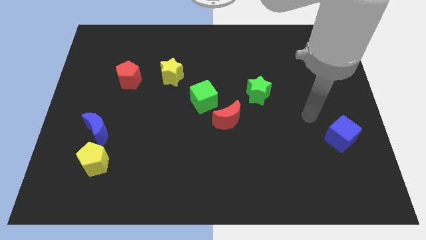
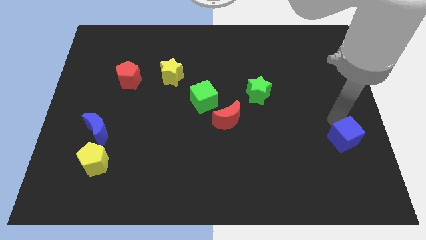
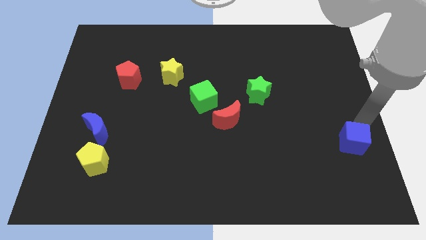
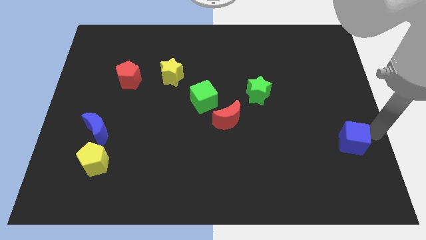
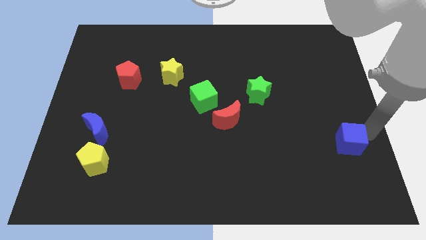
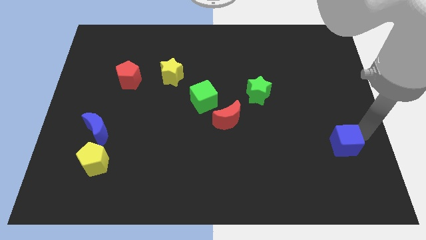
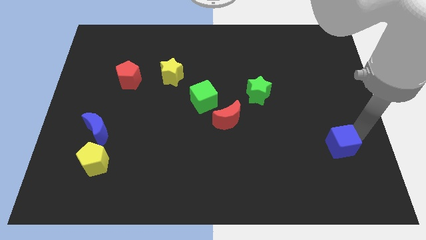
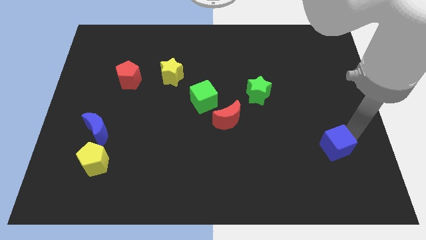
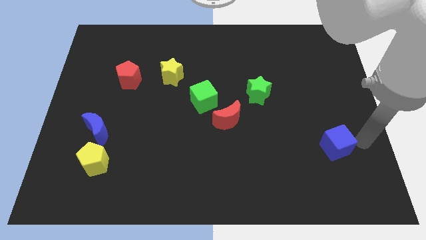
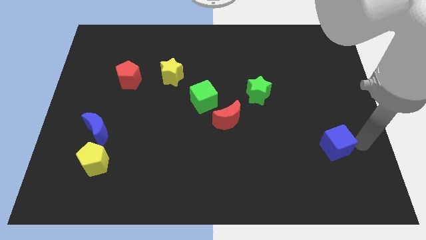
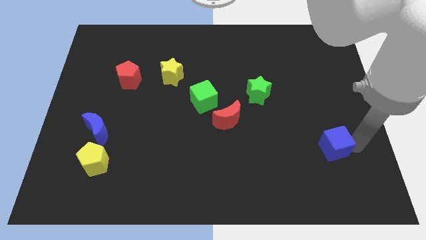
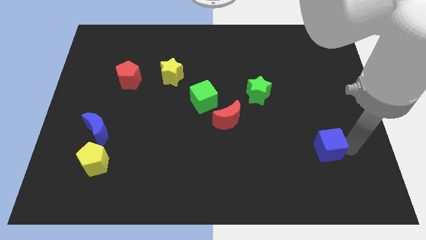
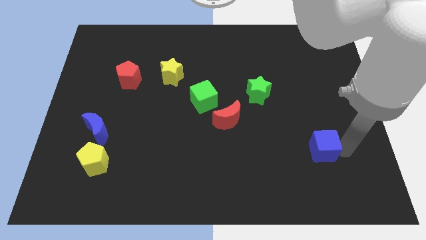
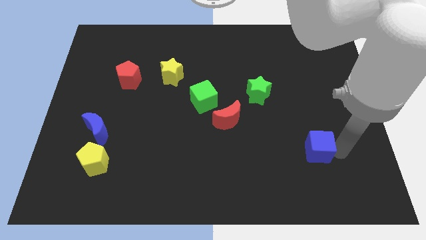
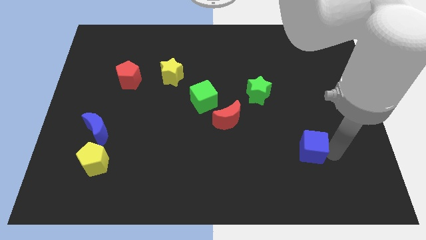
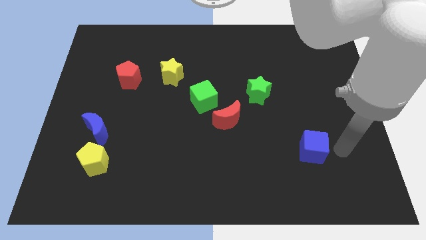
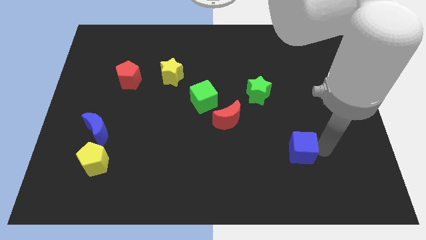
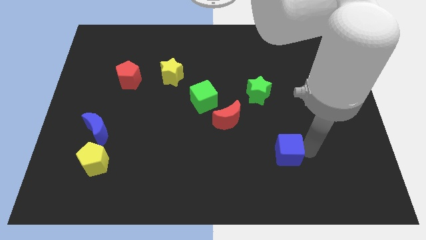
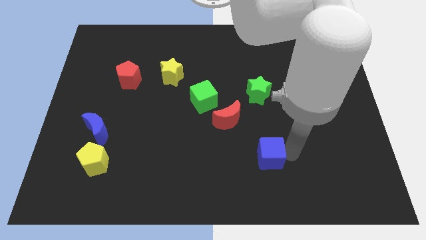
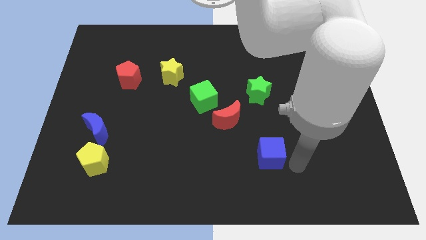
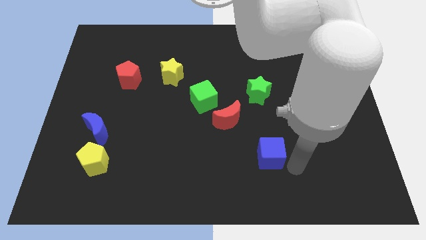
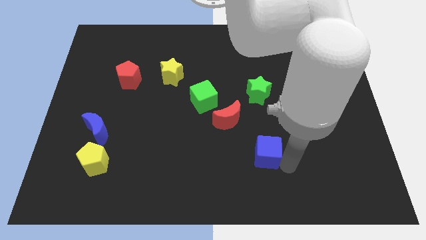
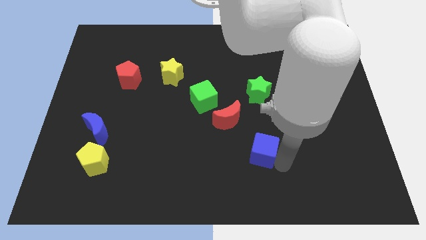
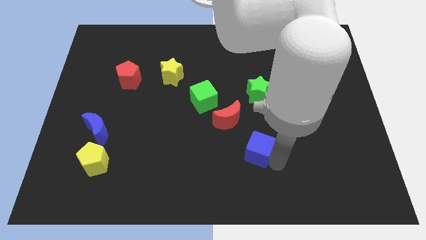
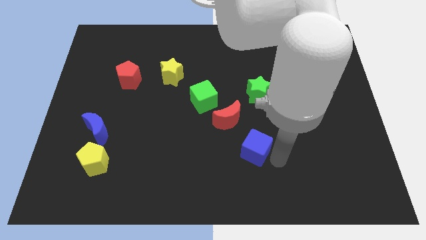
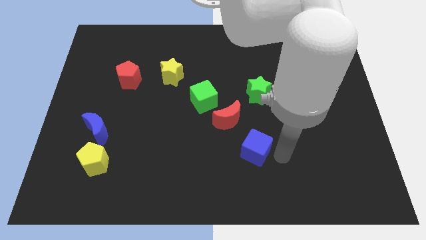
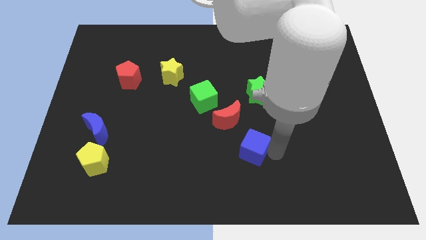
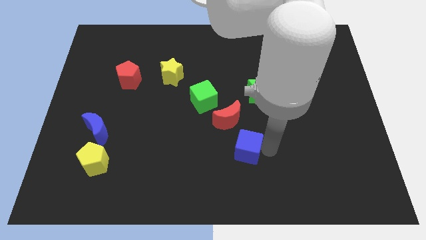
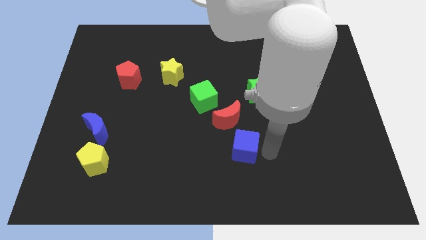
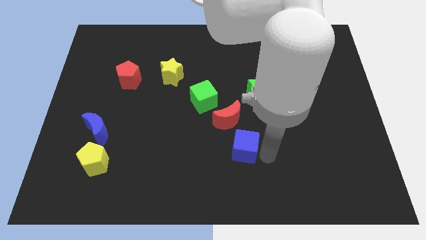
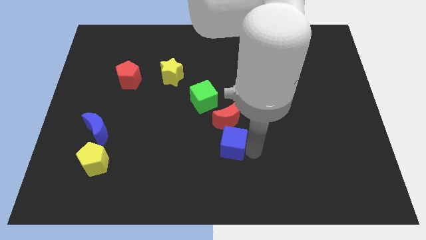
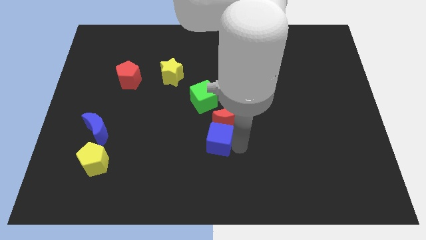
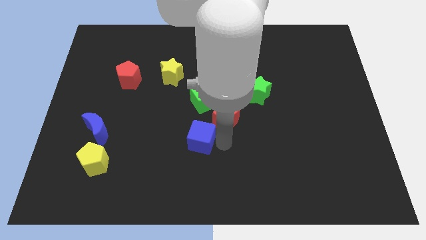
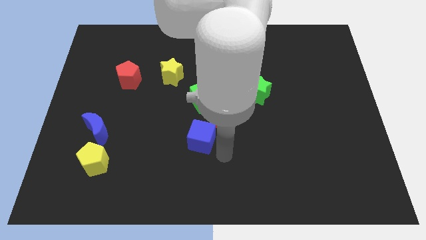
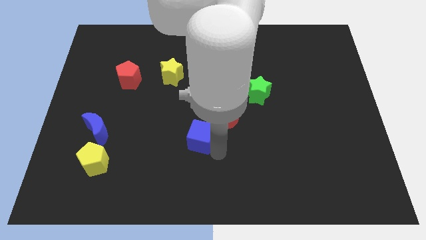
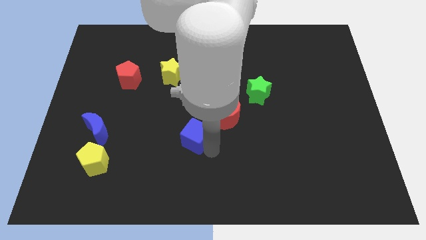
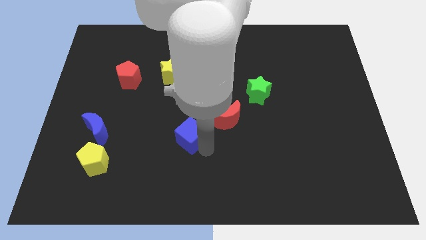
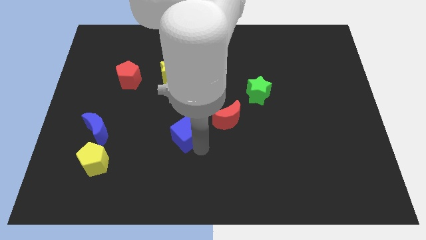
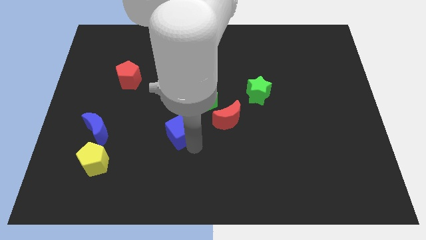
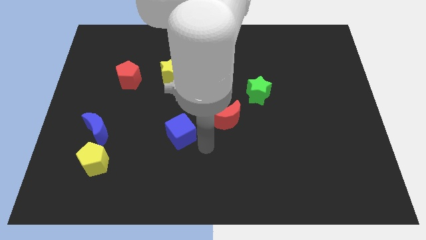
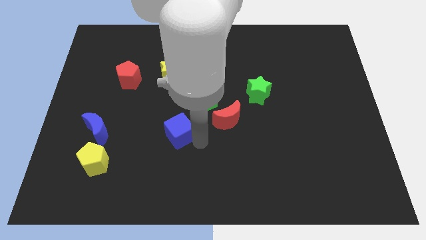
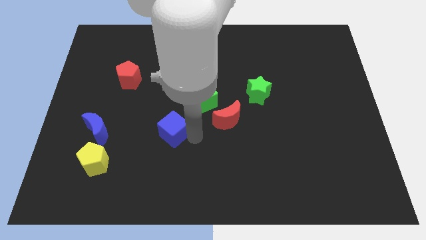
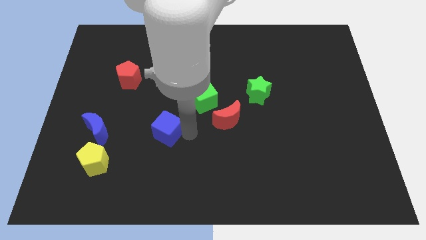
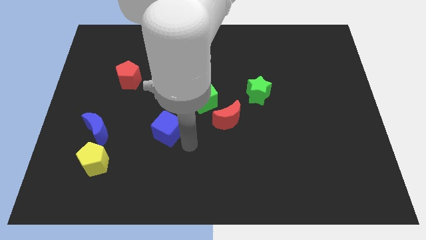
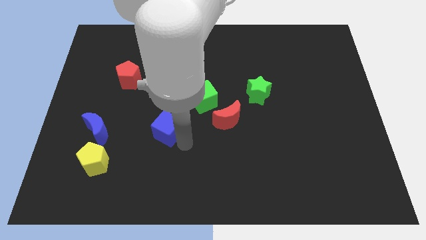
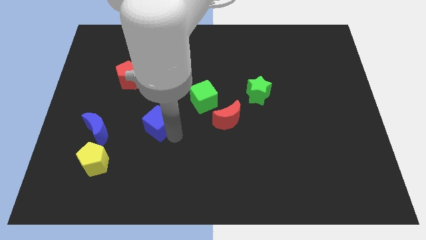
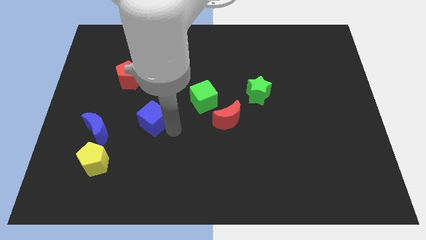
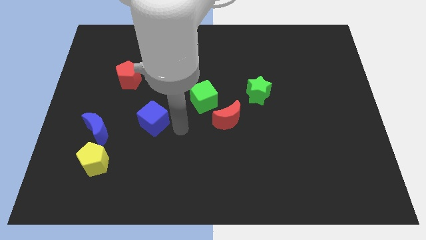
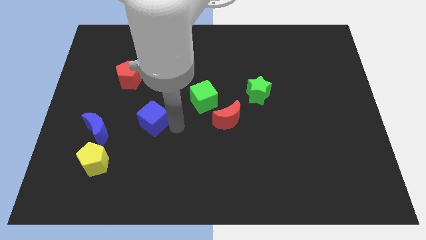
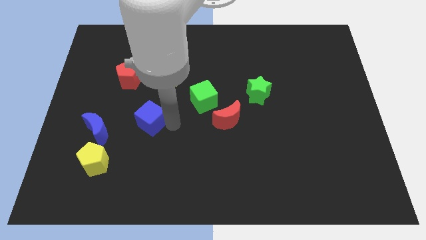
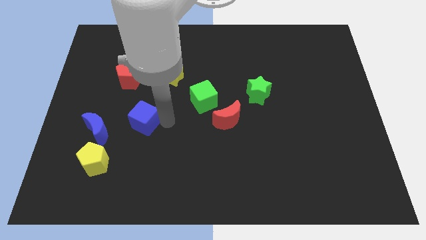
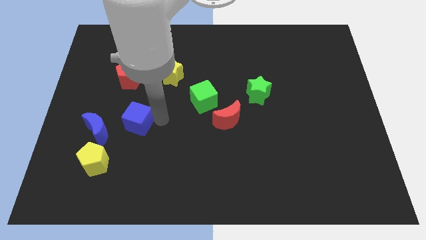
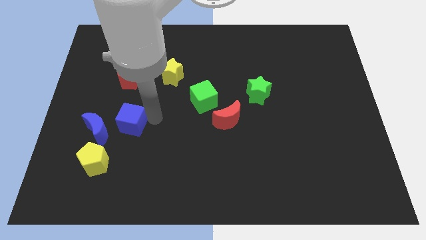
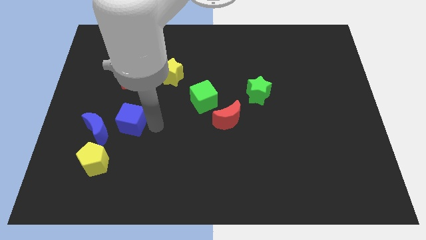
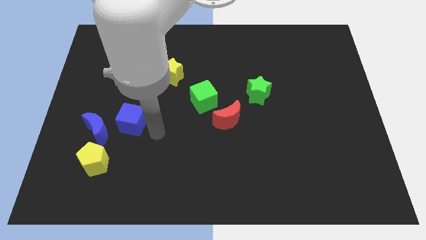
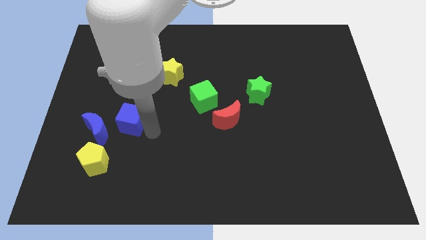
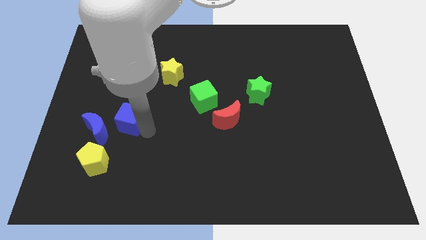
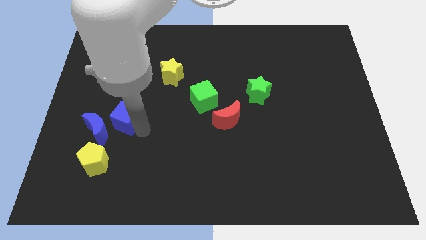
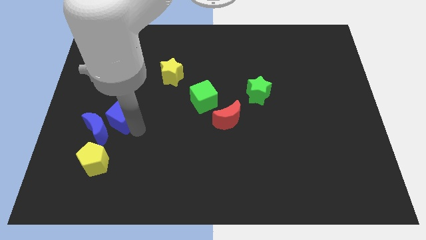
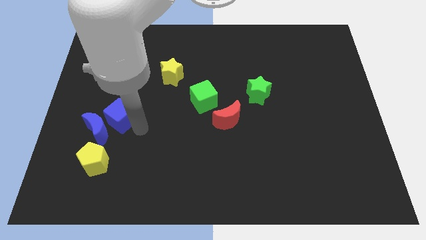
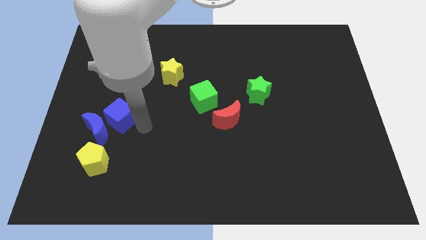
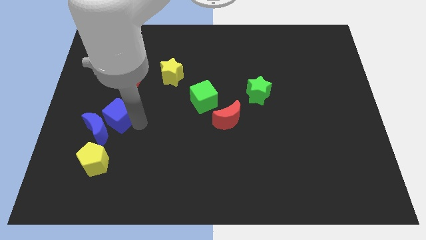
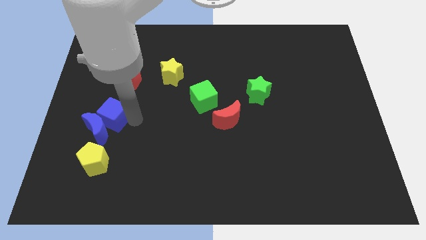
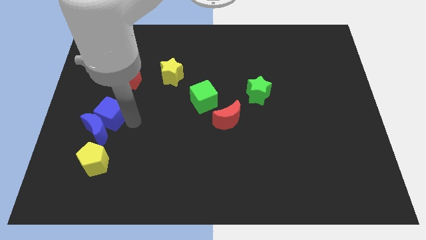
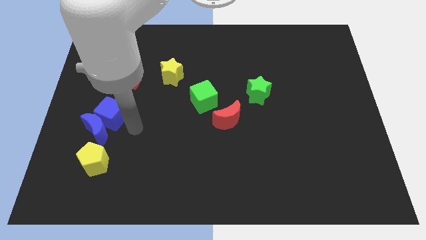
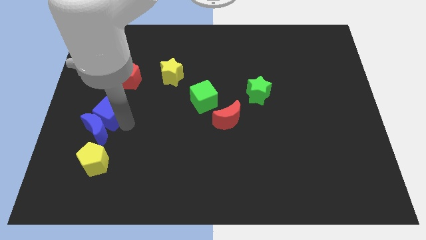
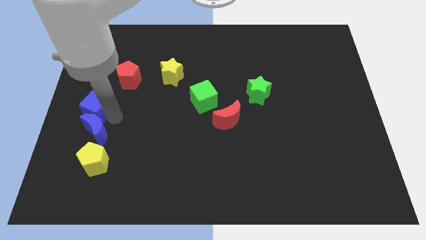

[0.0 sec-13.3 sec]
slide the blue cube to the left side
